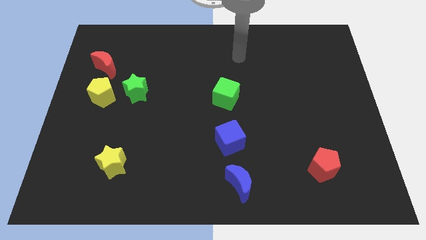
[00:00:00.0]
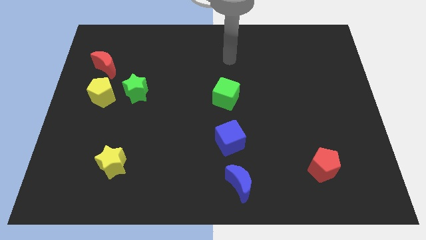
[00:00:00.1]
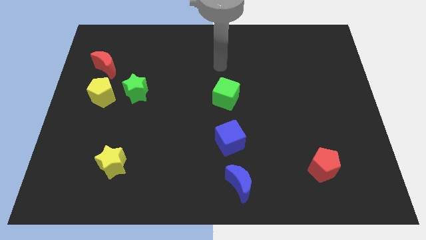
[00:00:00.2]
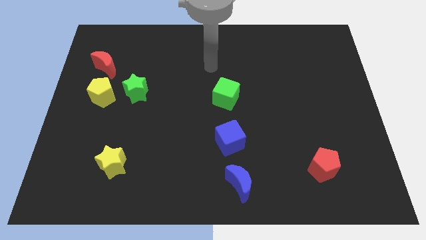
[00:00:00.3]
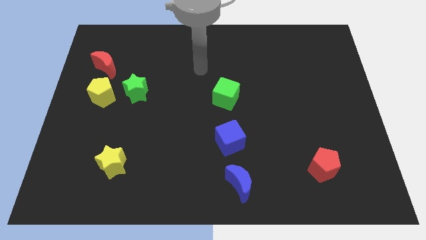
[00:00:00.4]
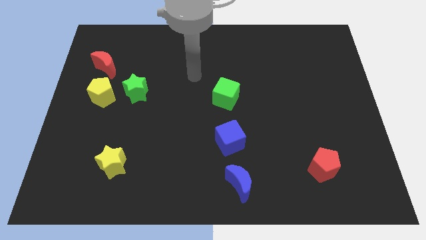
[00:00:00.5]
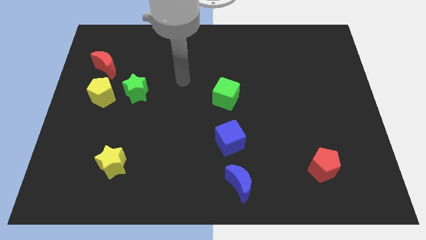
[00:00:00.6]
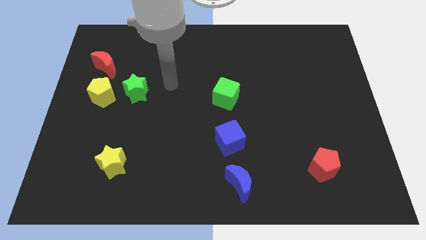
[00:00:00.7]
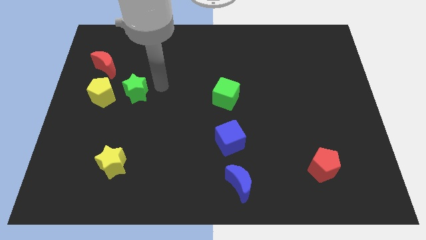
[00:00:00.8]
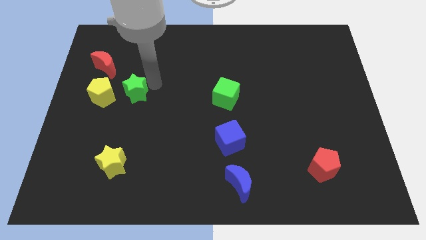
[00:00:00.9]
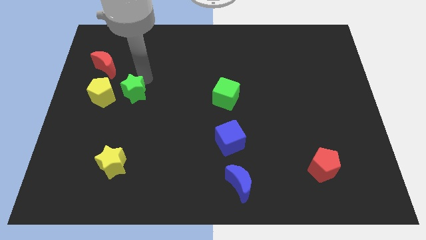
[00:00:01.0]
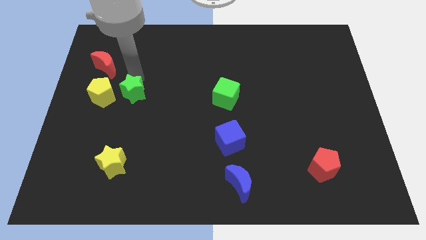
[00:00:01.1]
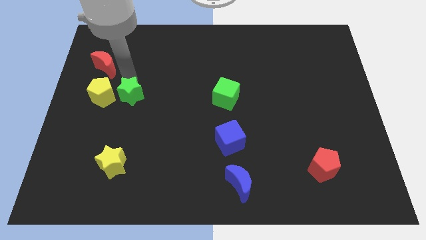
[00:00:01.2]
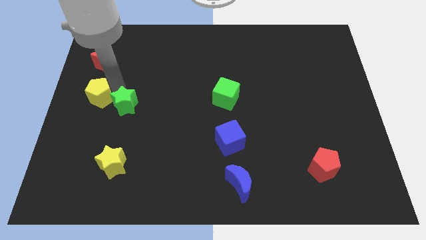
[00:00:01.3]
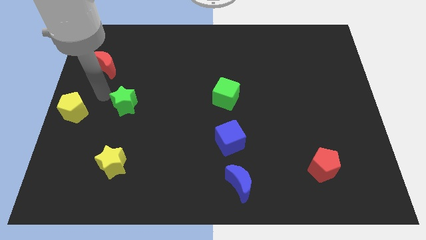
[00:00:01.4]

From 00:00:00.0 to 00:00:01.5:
separate the green star from the yellow pentagon

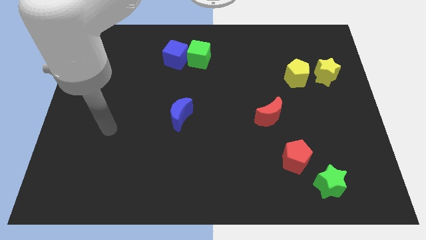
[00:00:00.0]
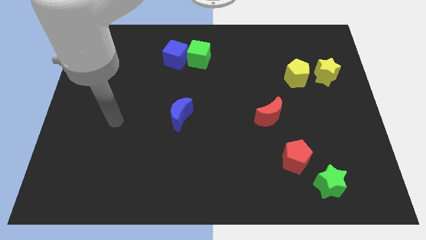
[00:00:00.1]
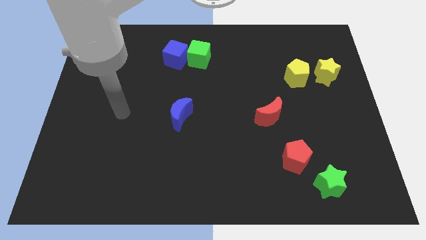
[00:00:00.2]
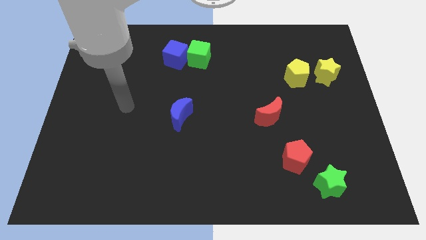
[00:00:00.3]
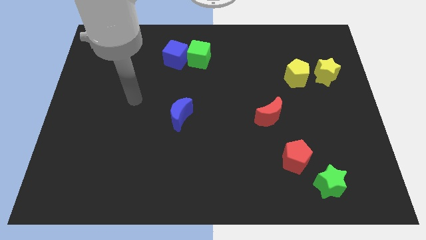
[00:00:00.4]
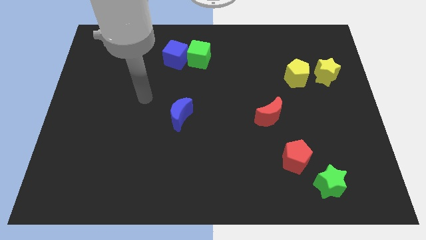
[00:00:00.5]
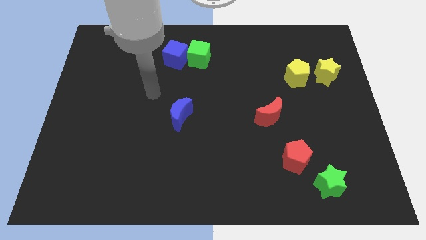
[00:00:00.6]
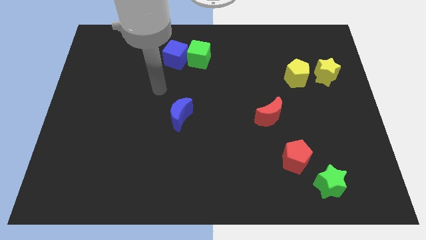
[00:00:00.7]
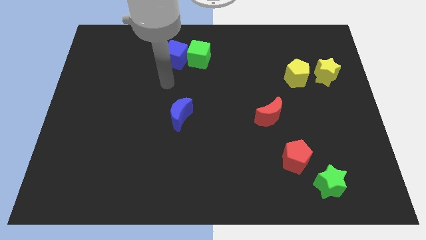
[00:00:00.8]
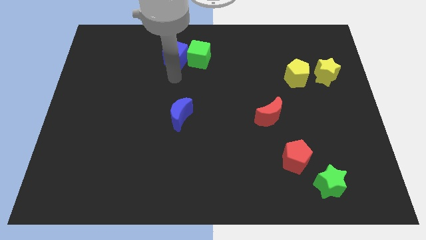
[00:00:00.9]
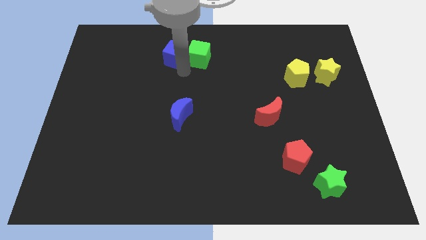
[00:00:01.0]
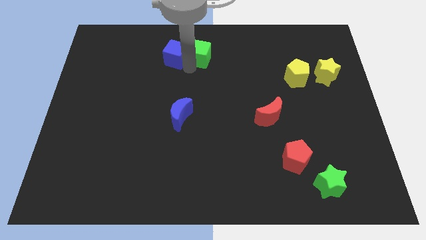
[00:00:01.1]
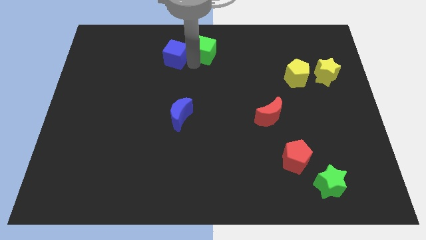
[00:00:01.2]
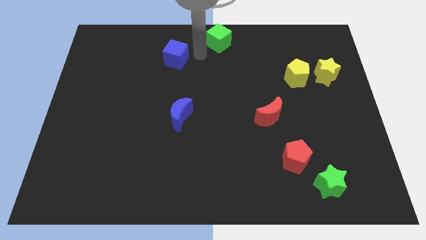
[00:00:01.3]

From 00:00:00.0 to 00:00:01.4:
separate the blue cube from the green cube

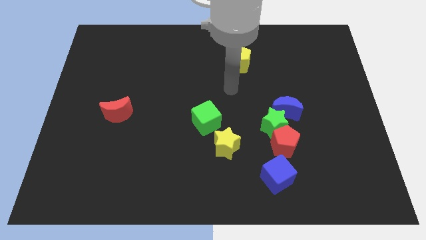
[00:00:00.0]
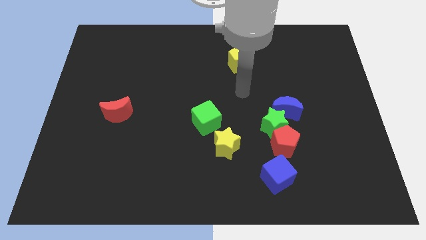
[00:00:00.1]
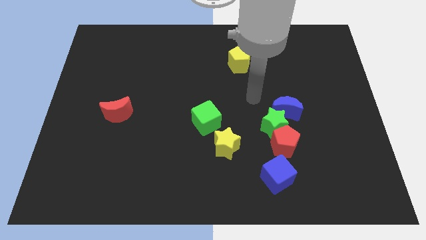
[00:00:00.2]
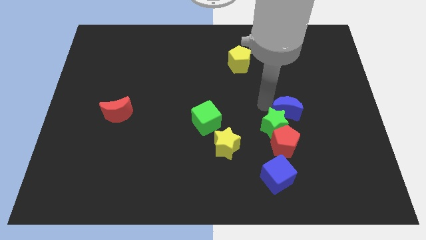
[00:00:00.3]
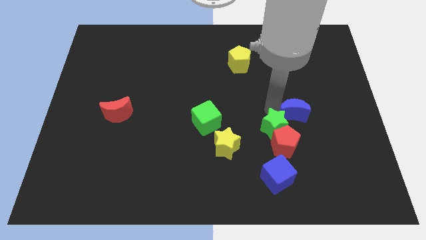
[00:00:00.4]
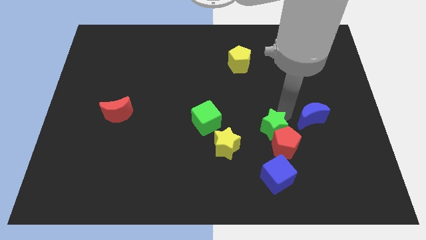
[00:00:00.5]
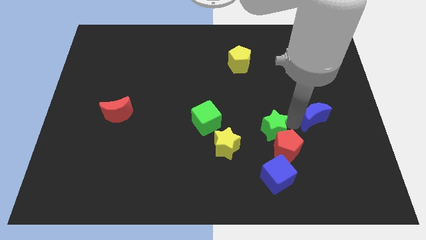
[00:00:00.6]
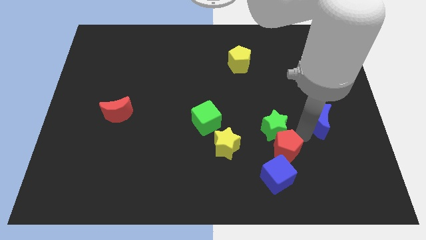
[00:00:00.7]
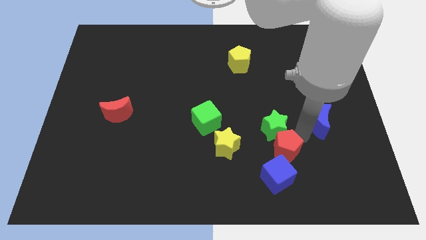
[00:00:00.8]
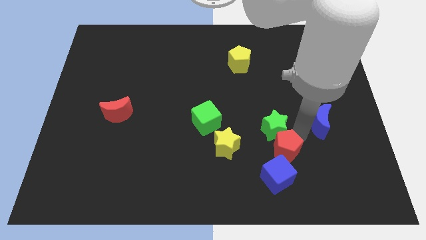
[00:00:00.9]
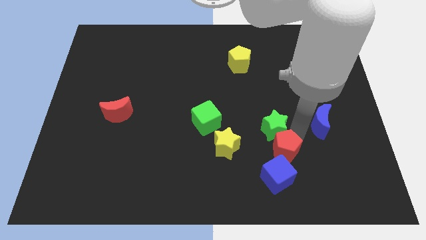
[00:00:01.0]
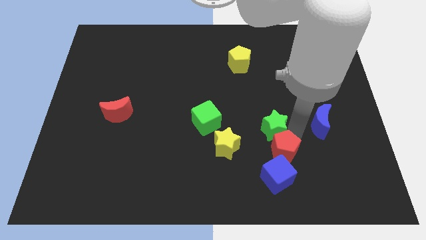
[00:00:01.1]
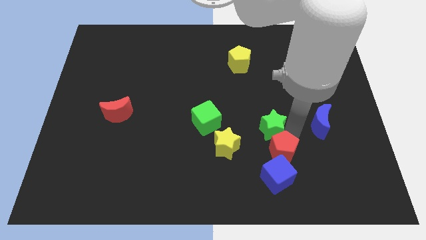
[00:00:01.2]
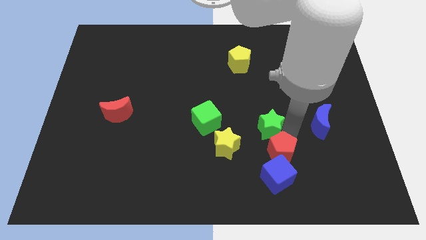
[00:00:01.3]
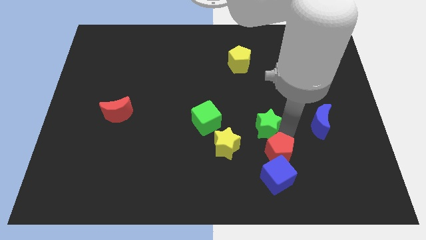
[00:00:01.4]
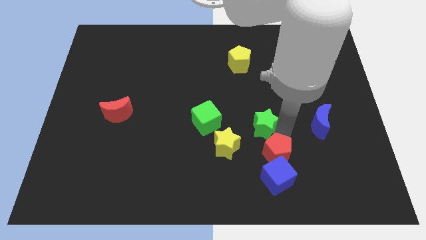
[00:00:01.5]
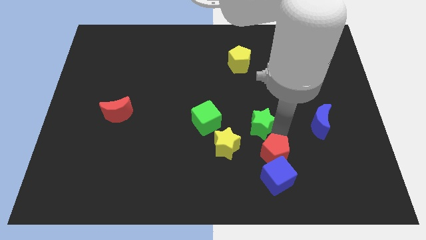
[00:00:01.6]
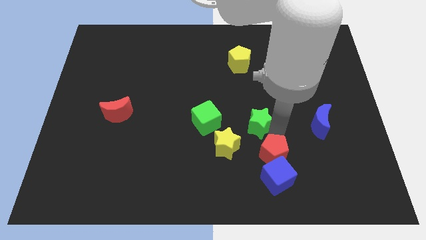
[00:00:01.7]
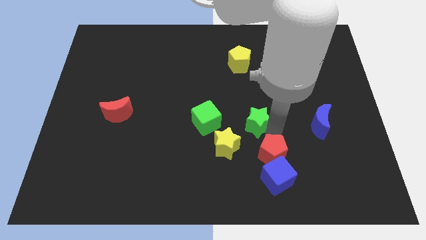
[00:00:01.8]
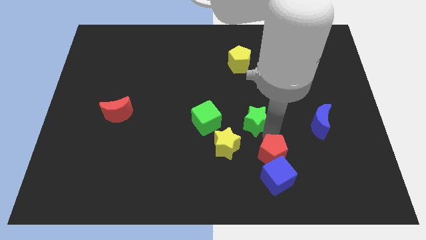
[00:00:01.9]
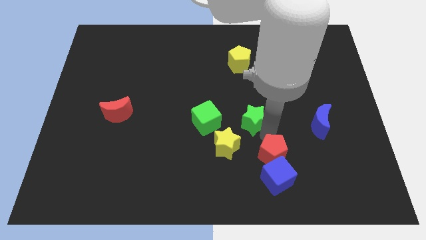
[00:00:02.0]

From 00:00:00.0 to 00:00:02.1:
pull the green star apart from the blue moon and red pentagon

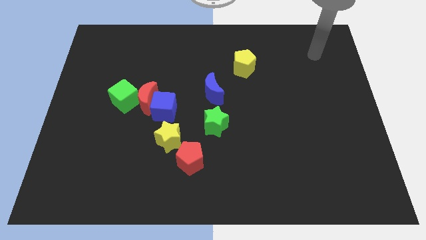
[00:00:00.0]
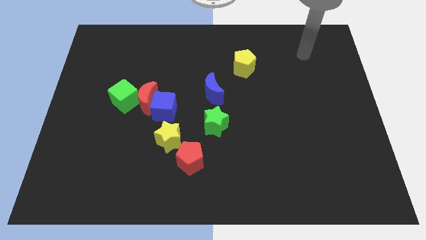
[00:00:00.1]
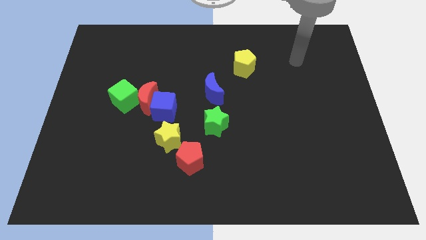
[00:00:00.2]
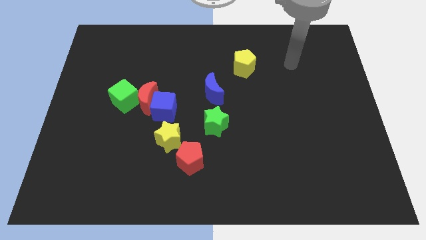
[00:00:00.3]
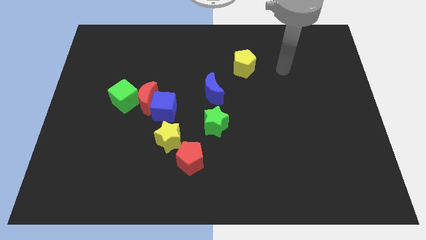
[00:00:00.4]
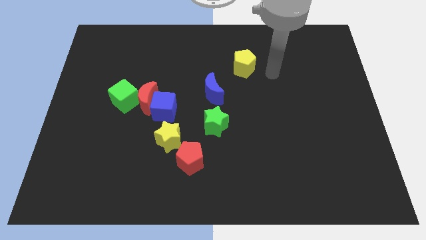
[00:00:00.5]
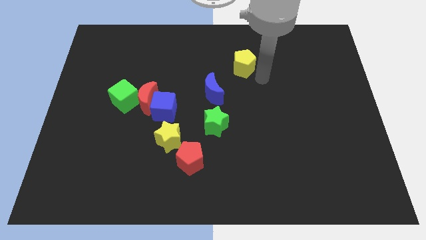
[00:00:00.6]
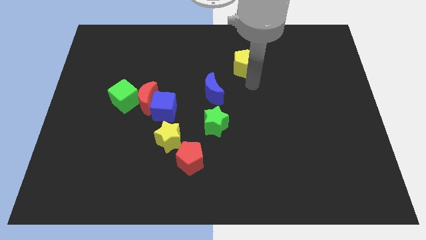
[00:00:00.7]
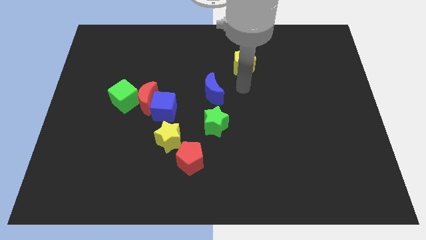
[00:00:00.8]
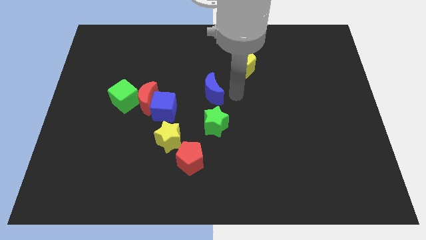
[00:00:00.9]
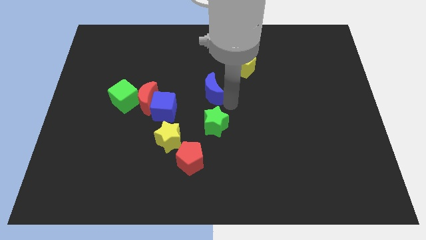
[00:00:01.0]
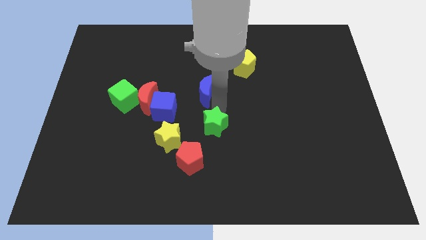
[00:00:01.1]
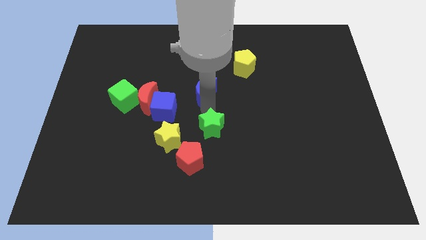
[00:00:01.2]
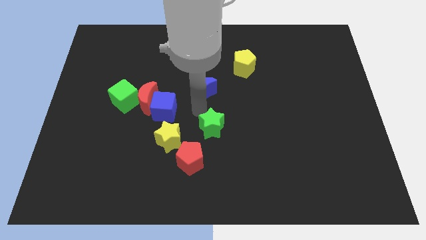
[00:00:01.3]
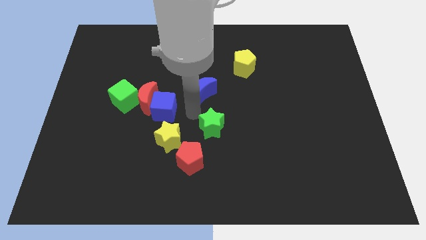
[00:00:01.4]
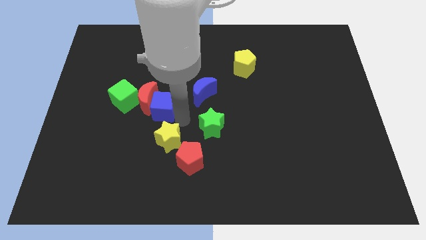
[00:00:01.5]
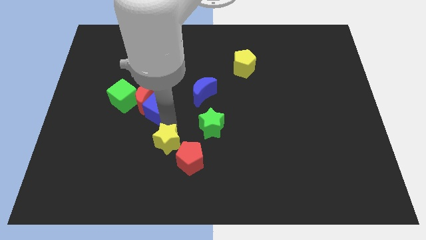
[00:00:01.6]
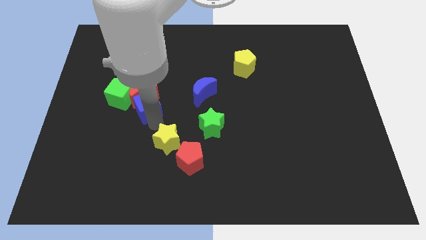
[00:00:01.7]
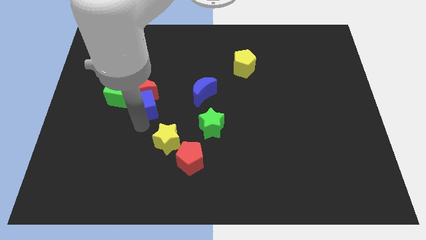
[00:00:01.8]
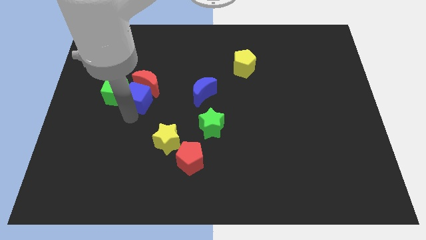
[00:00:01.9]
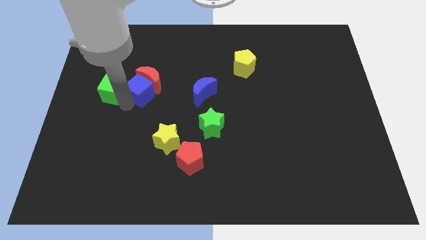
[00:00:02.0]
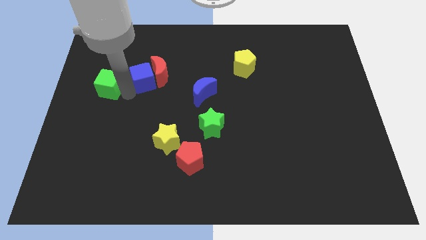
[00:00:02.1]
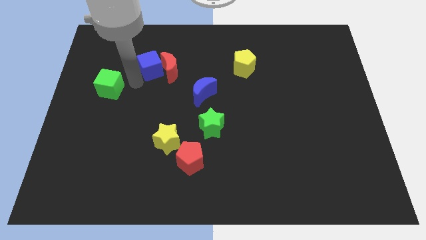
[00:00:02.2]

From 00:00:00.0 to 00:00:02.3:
pull the red moon apart from the blue cube and green cube

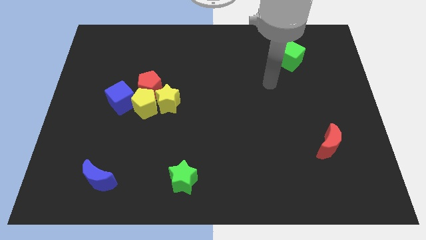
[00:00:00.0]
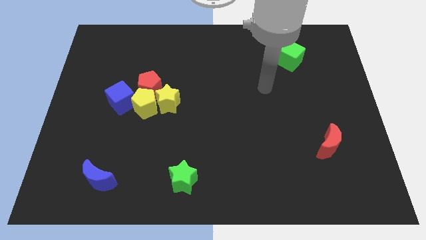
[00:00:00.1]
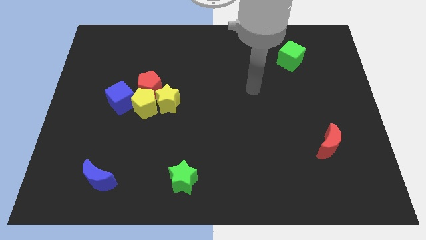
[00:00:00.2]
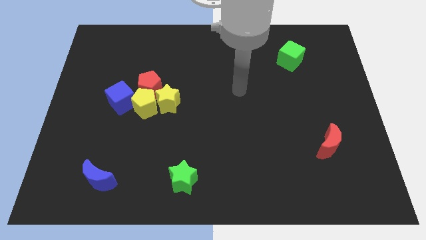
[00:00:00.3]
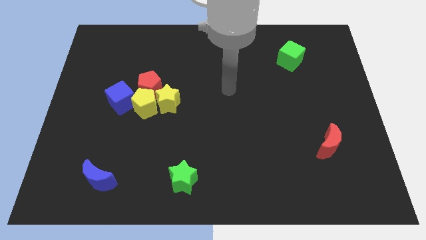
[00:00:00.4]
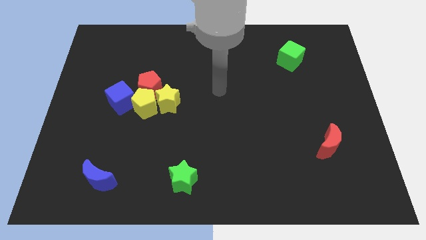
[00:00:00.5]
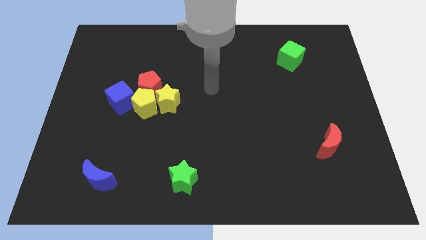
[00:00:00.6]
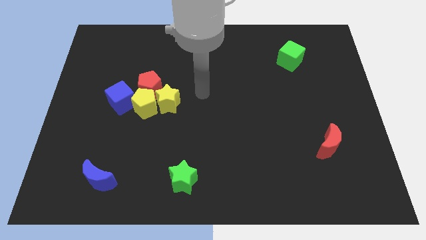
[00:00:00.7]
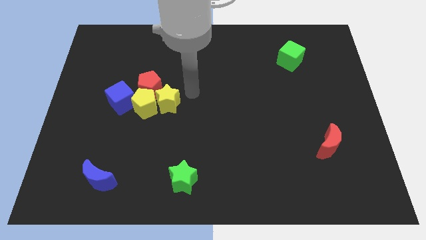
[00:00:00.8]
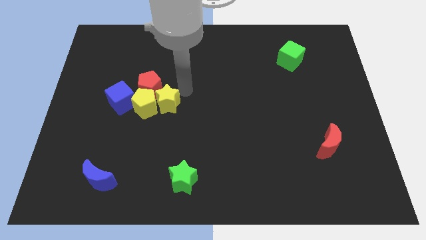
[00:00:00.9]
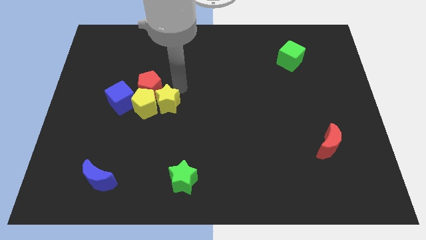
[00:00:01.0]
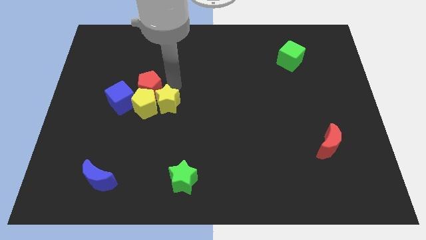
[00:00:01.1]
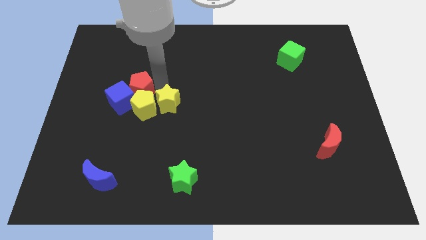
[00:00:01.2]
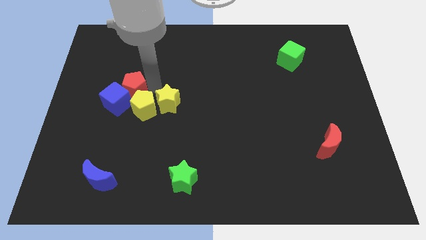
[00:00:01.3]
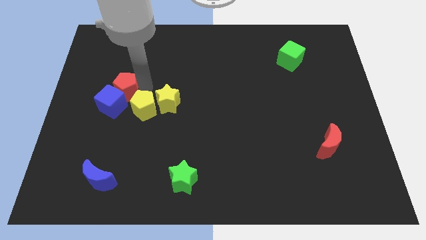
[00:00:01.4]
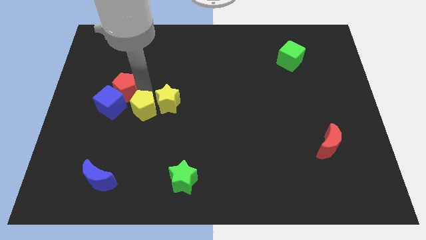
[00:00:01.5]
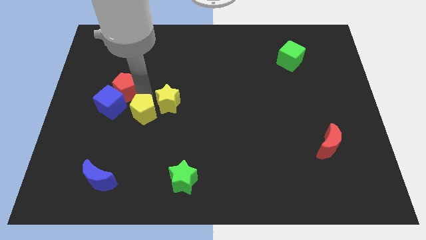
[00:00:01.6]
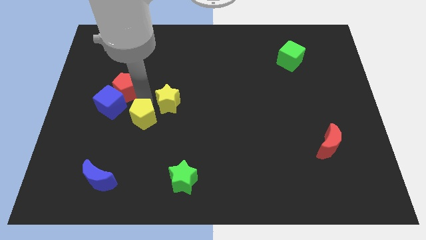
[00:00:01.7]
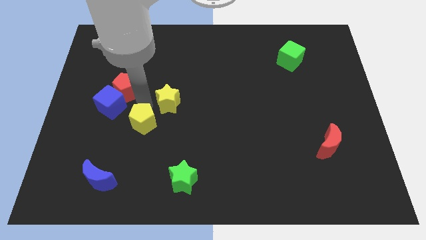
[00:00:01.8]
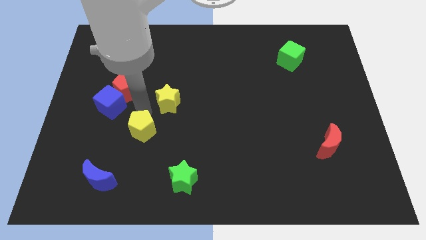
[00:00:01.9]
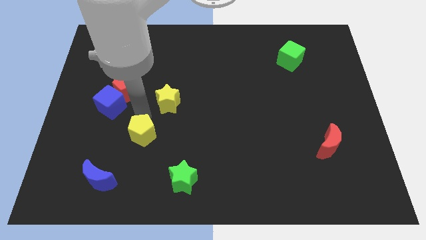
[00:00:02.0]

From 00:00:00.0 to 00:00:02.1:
move the yellow pentagon away from the yellow star, red pentagon, and blue cube

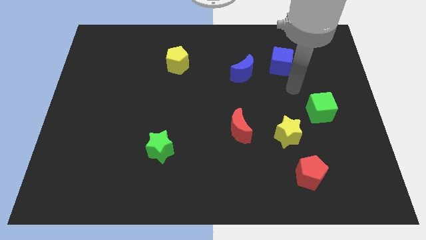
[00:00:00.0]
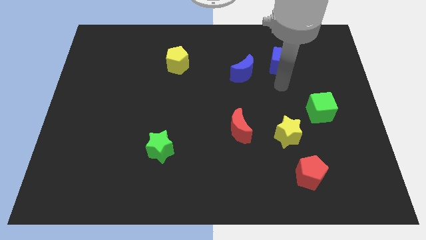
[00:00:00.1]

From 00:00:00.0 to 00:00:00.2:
move the blue moon away from the blue cube
